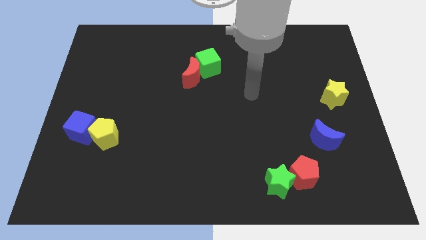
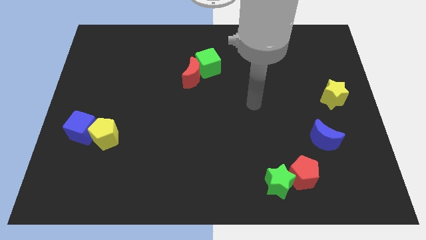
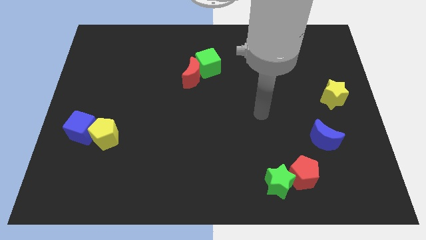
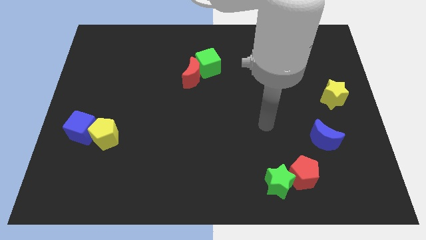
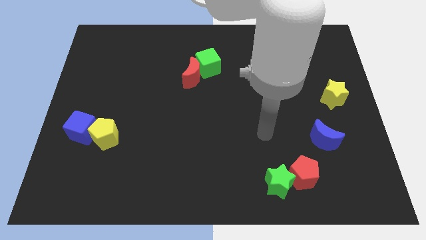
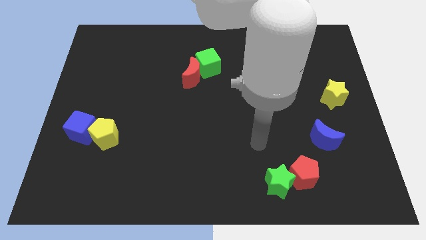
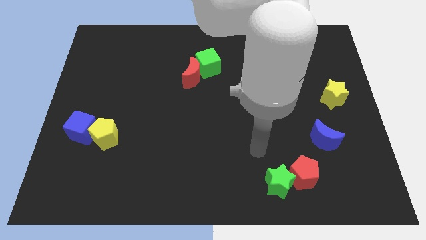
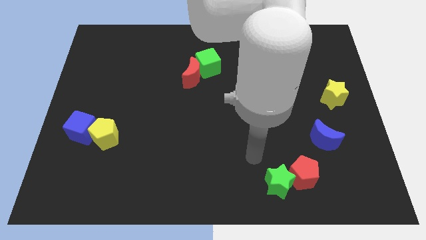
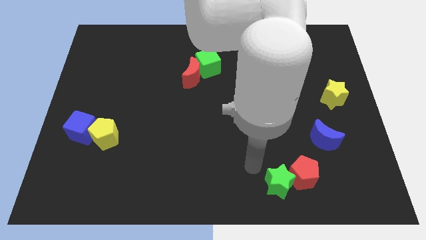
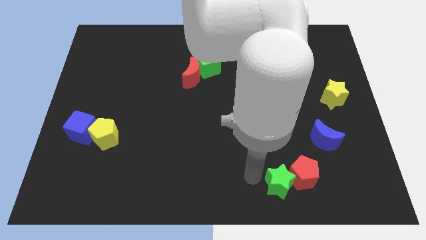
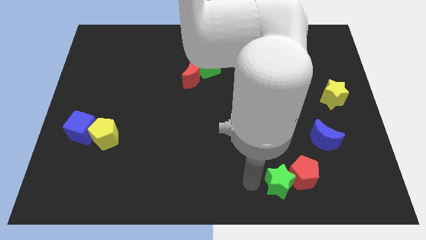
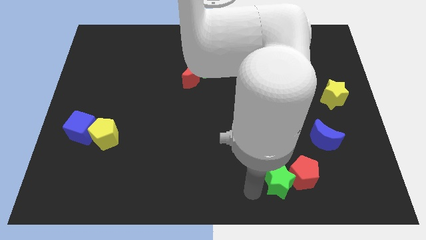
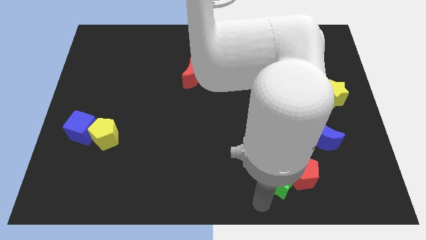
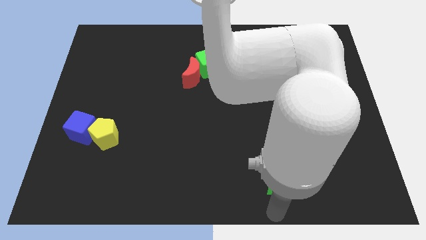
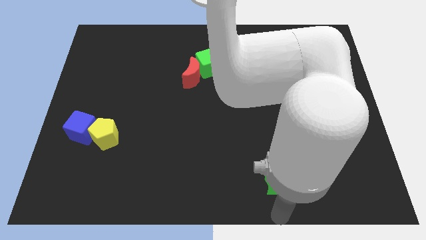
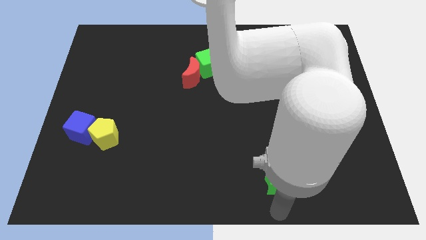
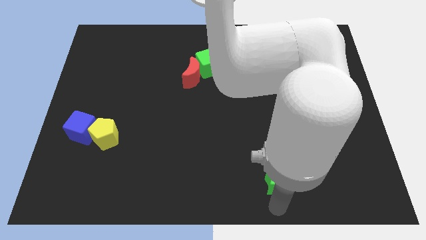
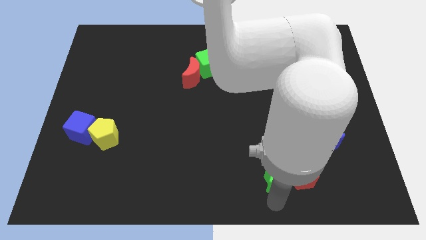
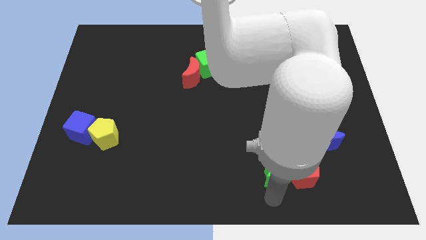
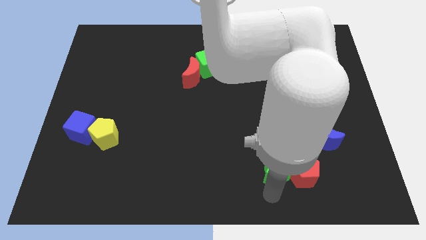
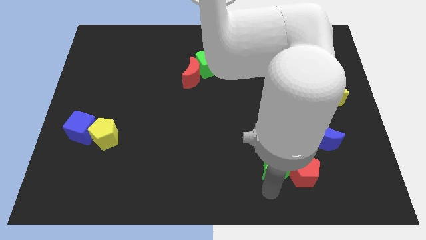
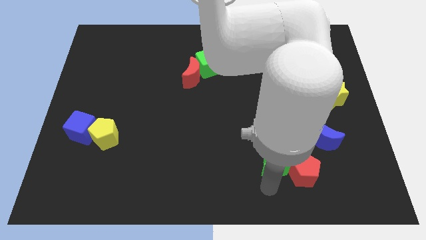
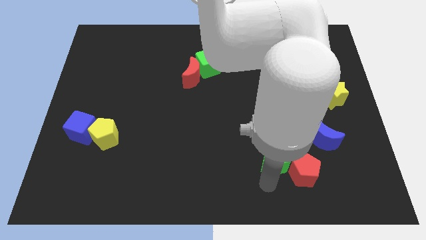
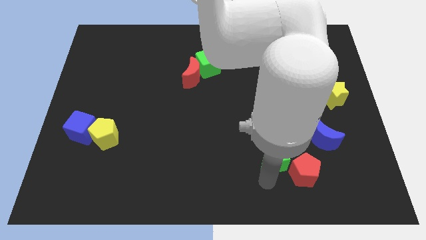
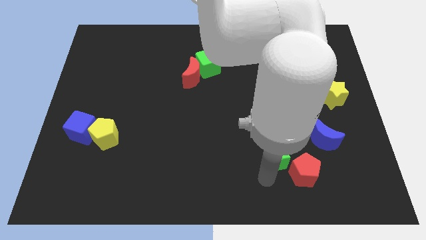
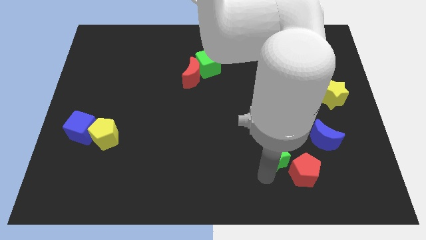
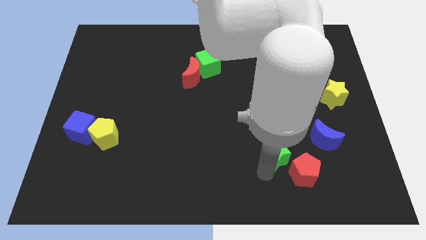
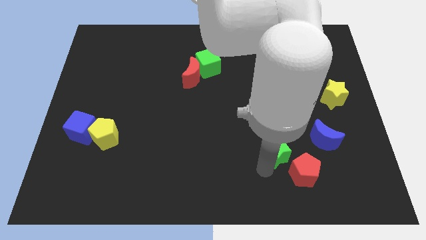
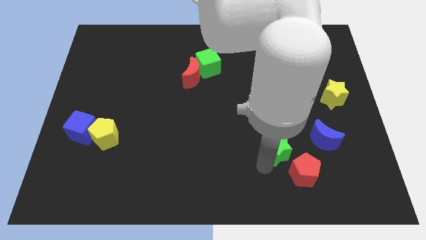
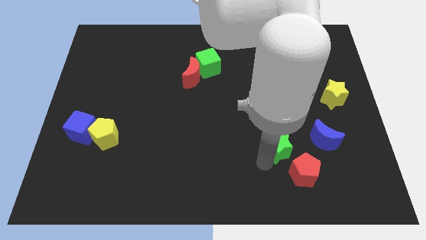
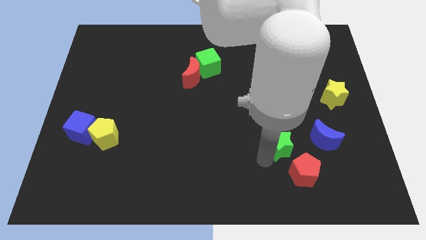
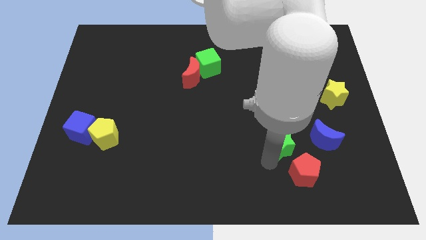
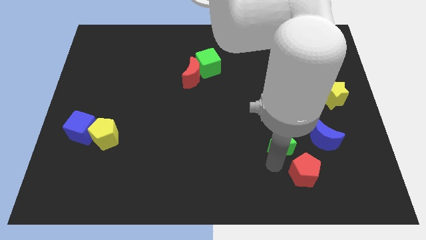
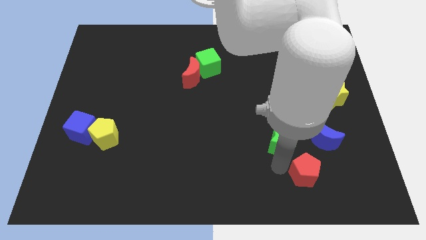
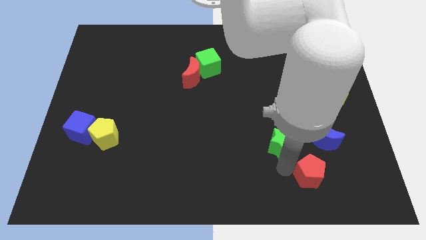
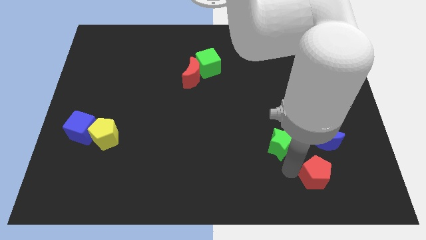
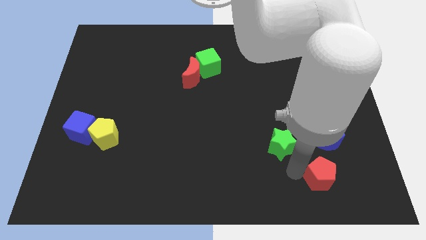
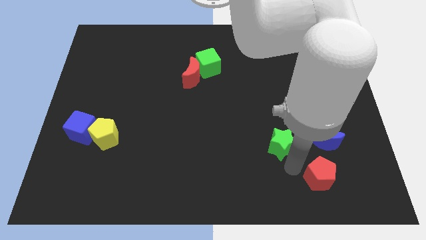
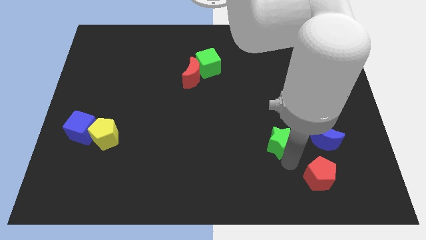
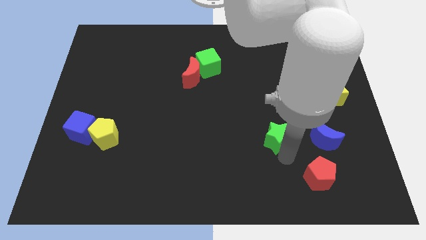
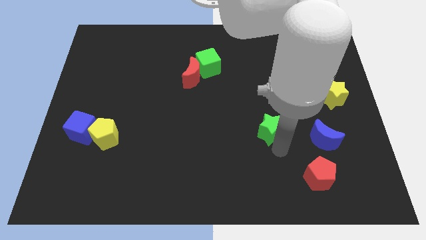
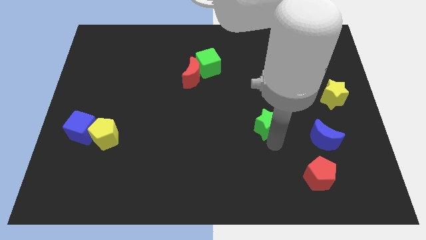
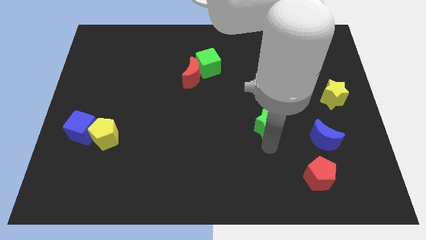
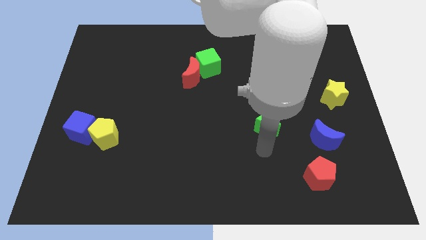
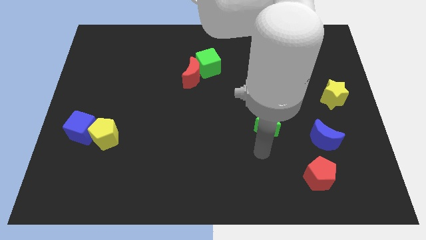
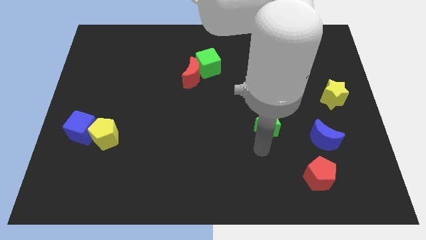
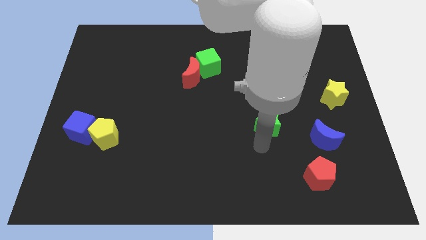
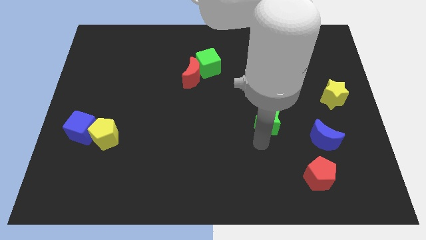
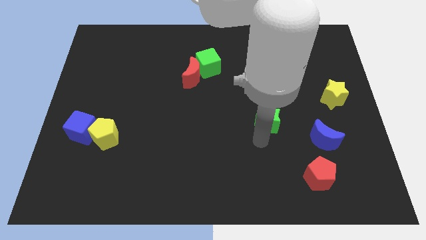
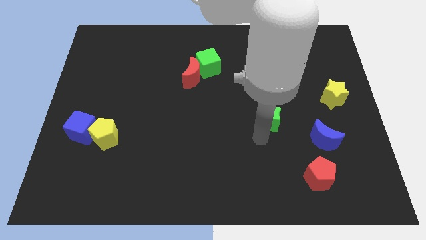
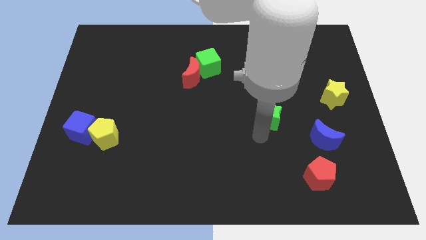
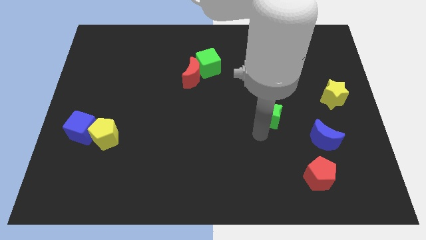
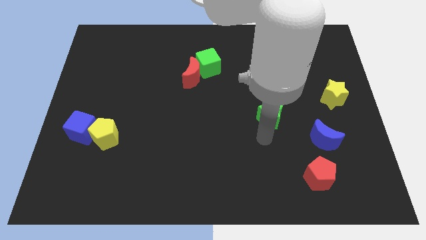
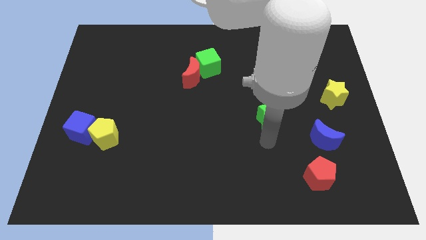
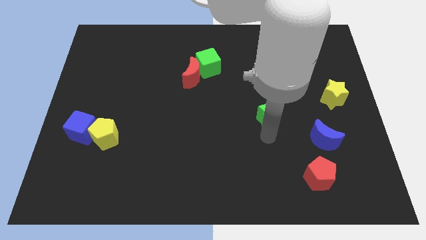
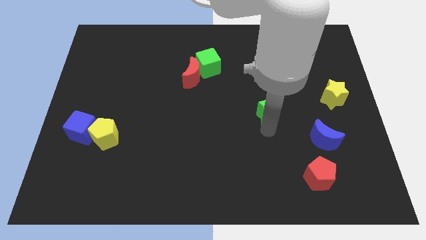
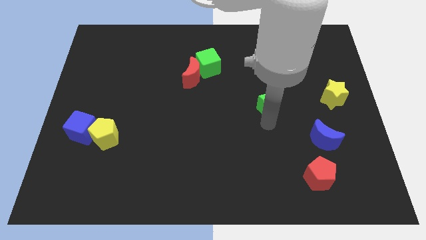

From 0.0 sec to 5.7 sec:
move the green star up

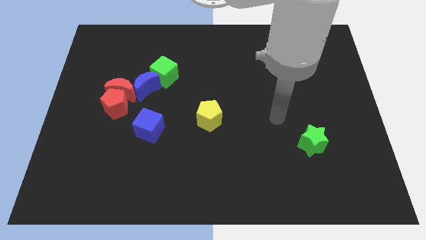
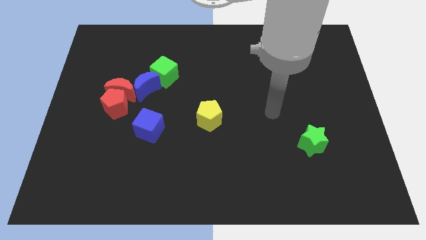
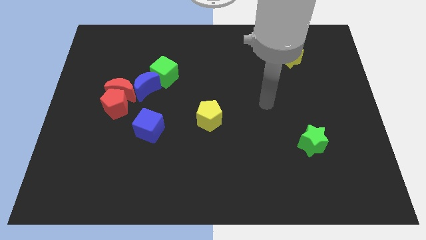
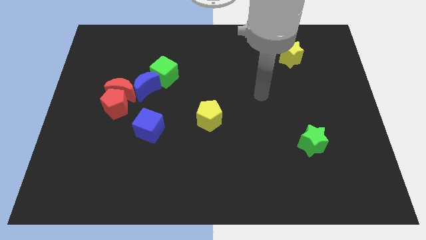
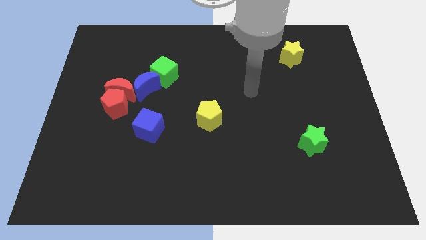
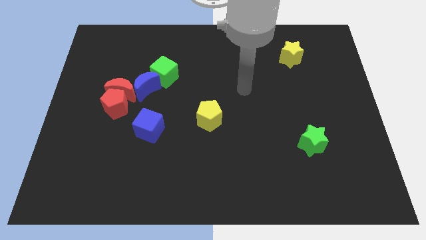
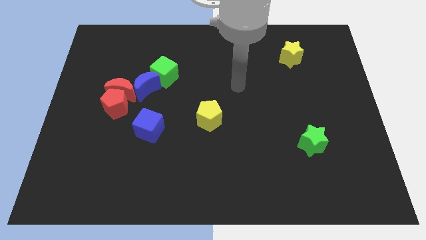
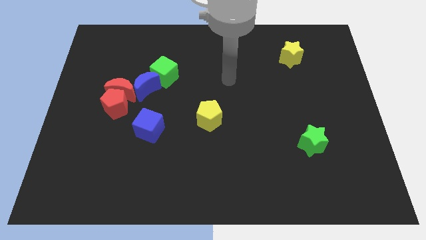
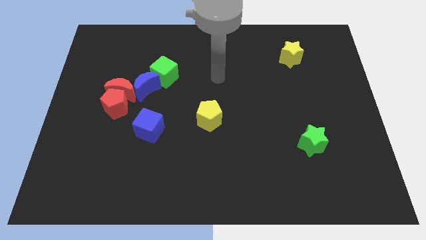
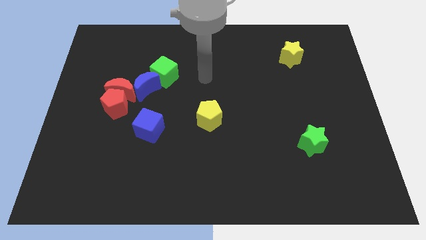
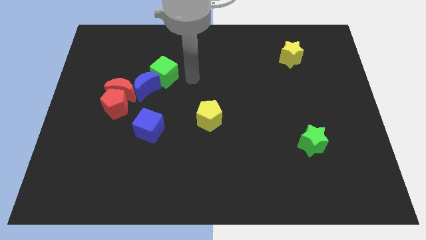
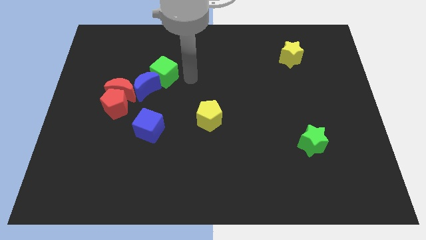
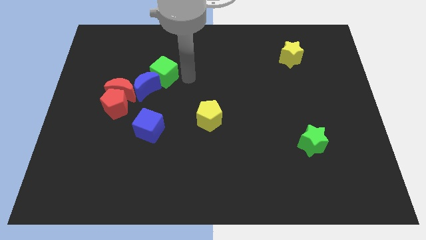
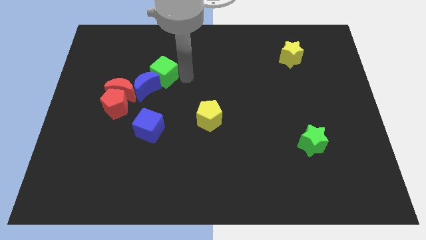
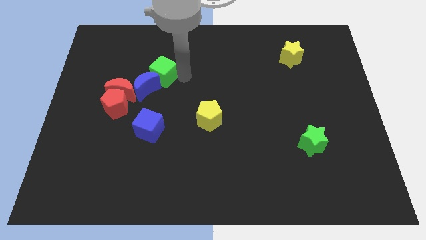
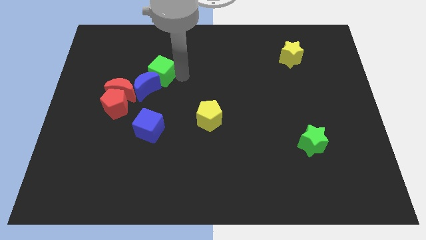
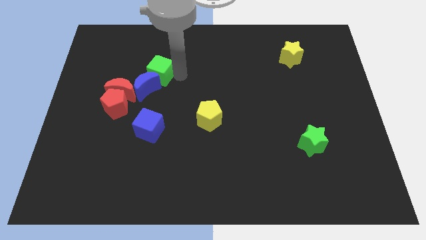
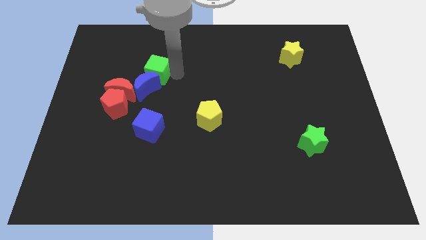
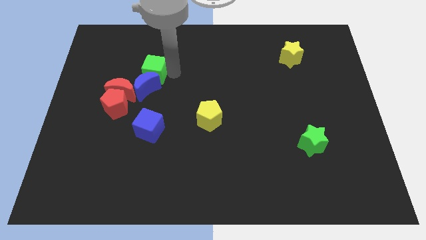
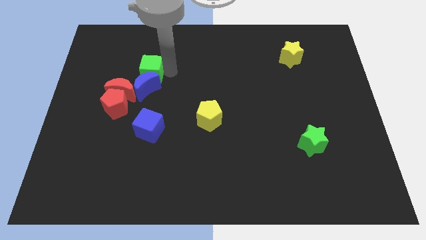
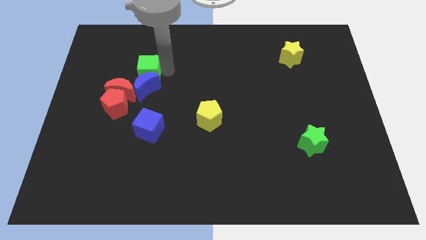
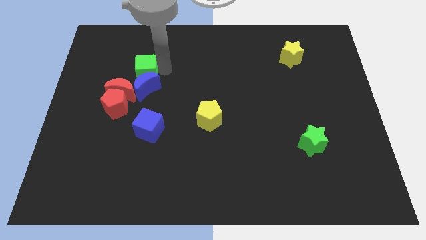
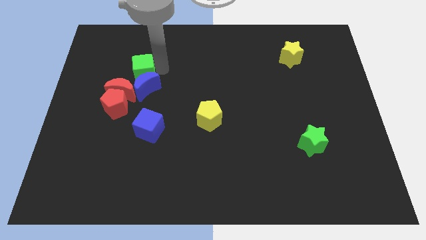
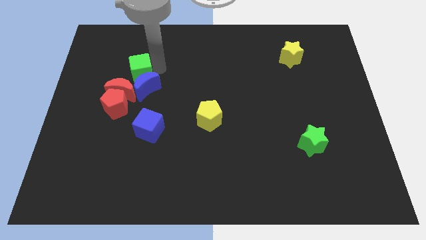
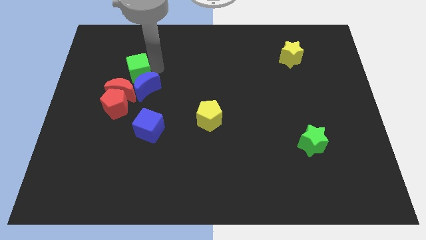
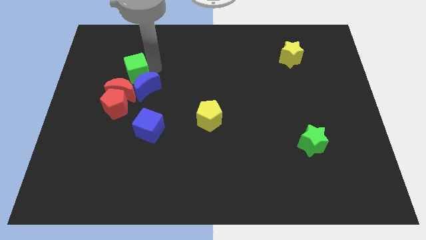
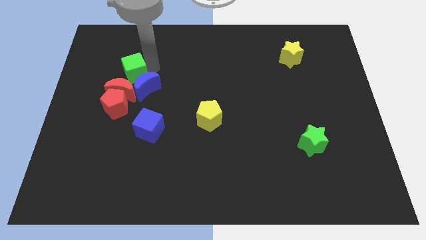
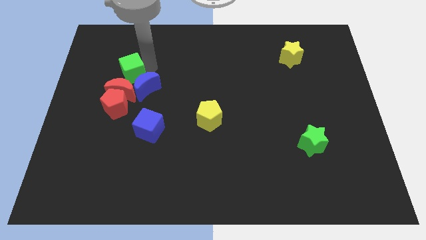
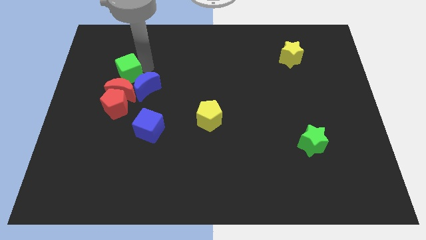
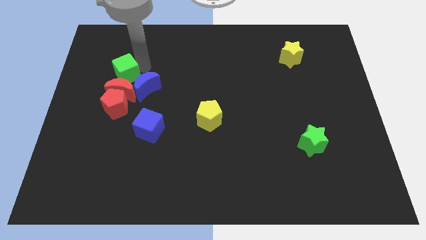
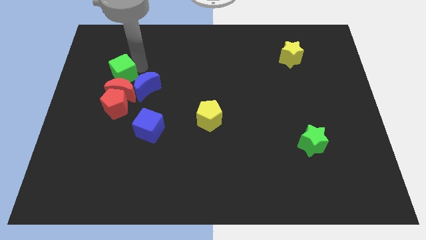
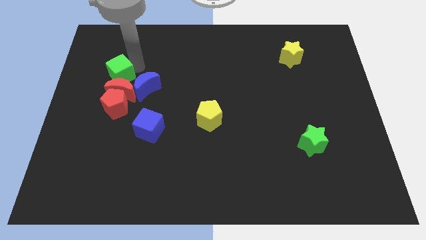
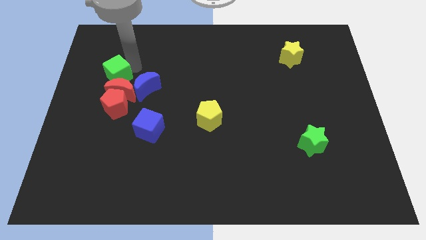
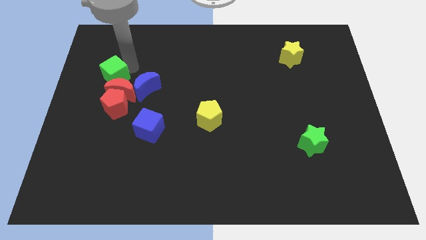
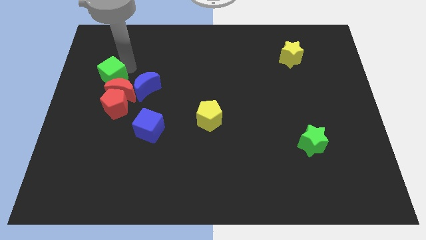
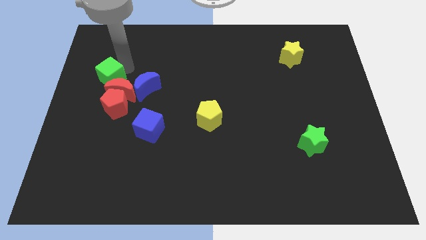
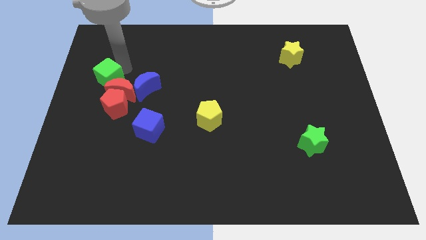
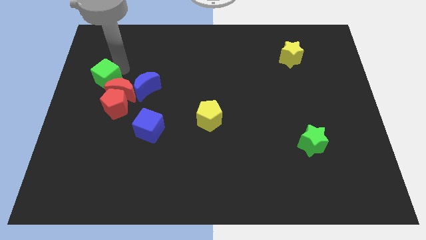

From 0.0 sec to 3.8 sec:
push the green cube somewhat down and then left
